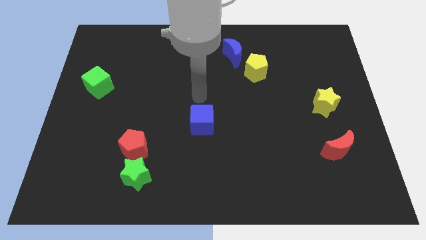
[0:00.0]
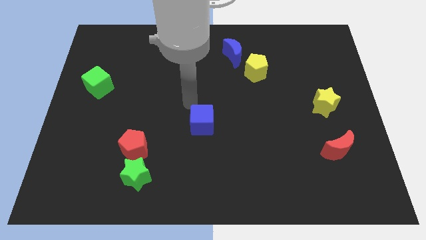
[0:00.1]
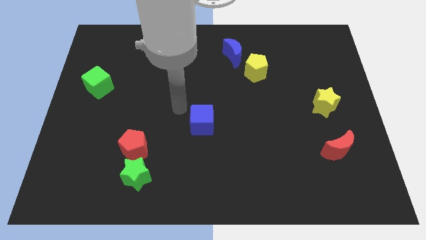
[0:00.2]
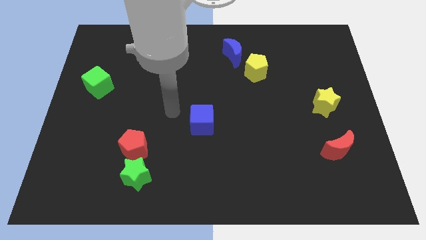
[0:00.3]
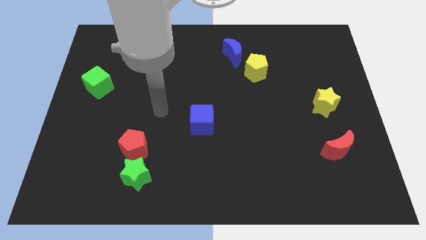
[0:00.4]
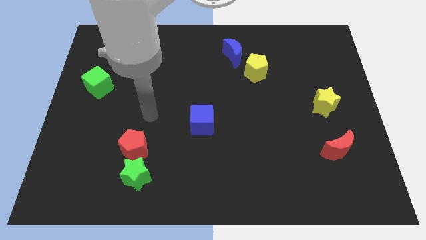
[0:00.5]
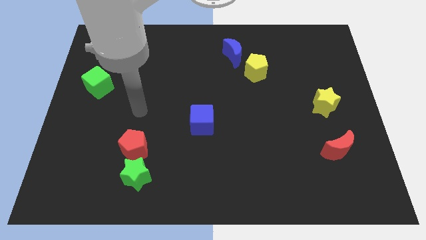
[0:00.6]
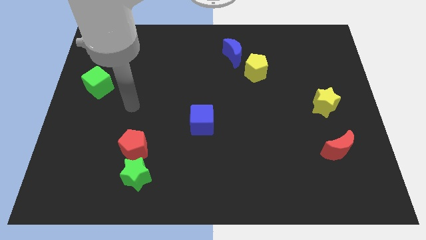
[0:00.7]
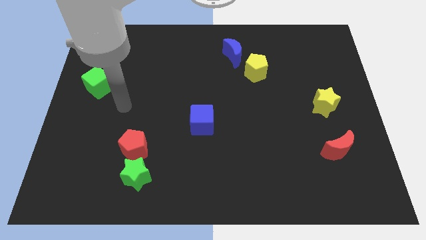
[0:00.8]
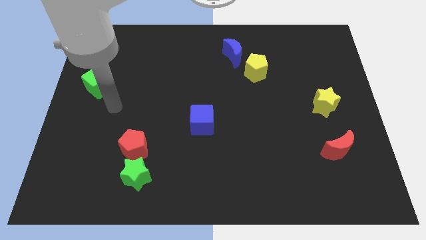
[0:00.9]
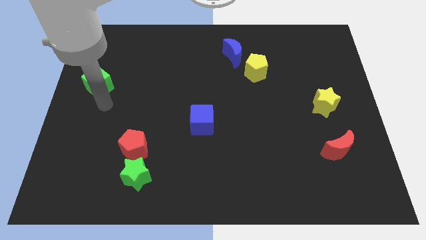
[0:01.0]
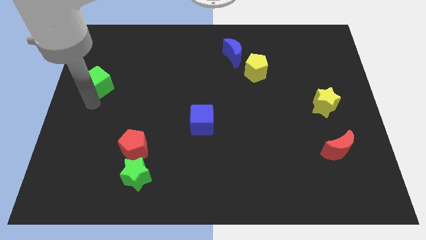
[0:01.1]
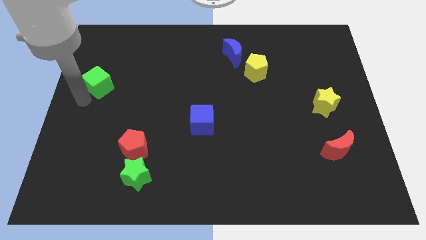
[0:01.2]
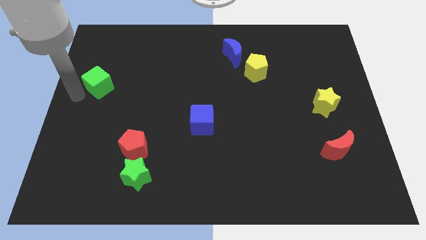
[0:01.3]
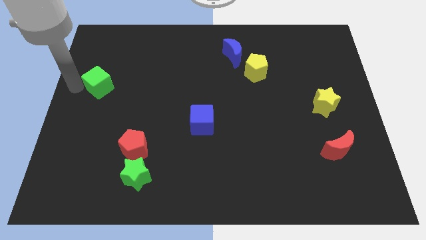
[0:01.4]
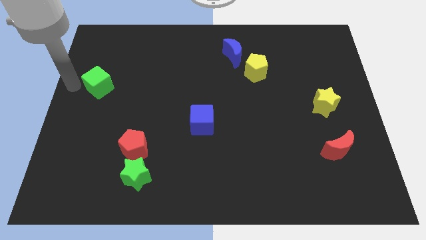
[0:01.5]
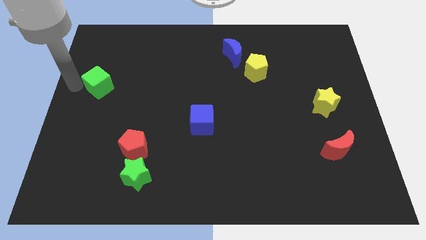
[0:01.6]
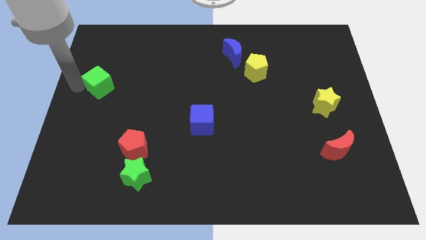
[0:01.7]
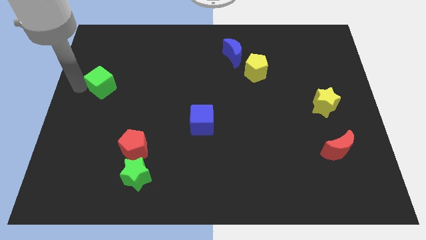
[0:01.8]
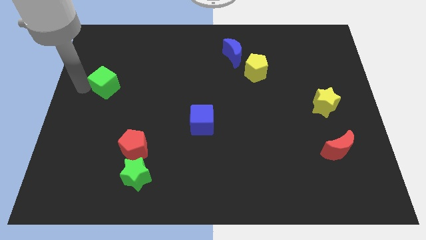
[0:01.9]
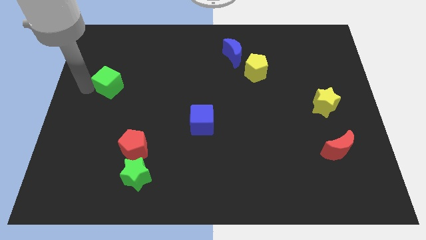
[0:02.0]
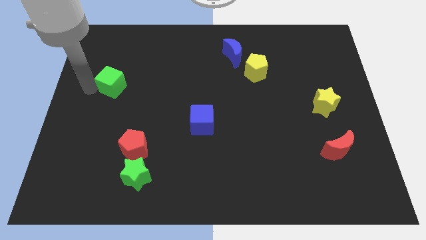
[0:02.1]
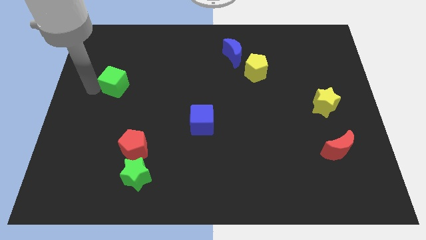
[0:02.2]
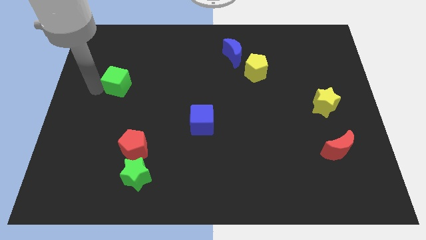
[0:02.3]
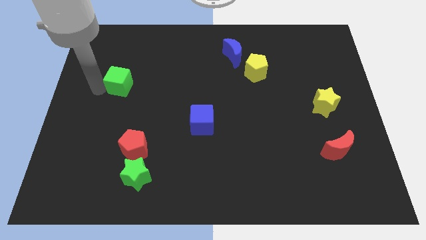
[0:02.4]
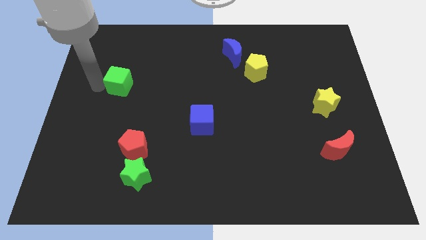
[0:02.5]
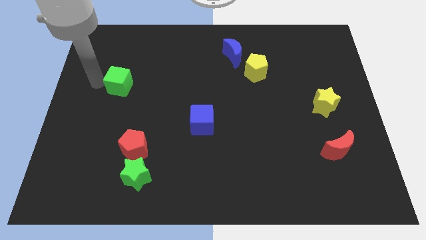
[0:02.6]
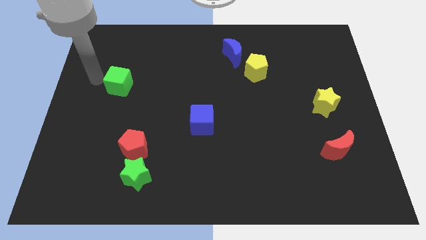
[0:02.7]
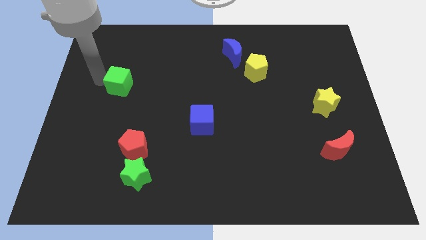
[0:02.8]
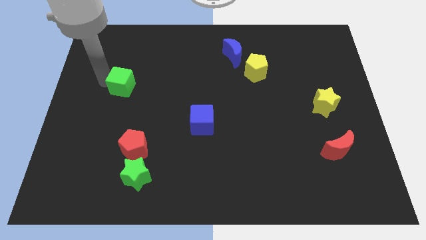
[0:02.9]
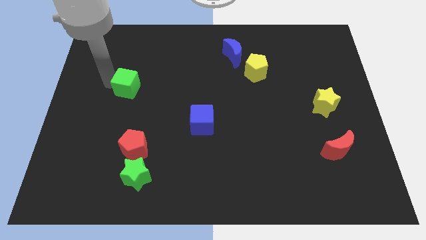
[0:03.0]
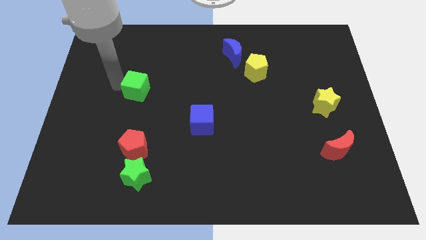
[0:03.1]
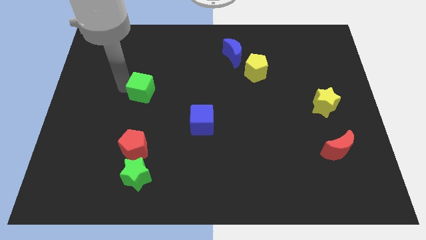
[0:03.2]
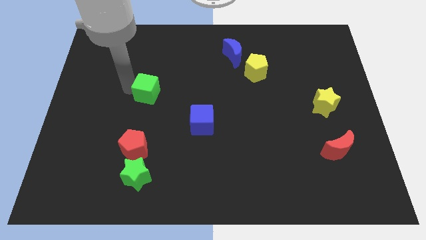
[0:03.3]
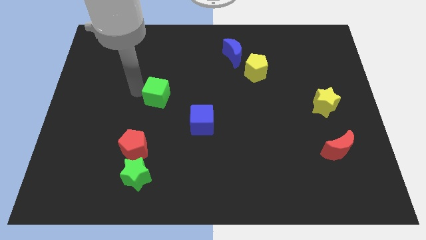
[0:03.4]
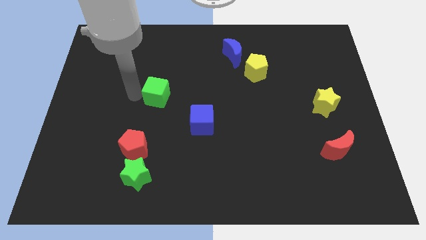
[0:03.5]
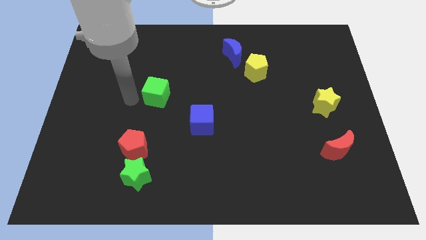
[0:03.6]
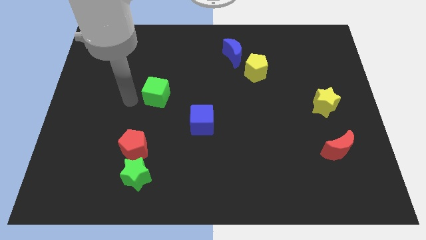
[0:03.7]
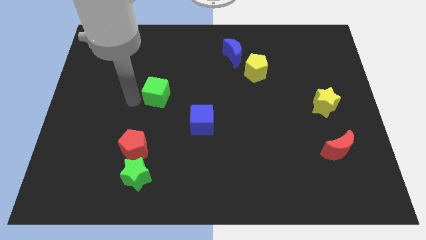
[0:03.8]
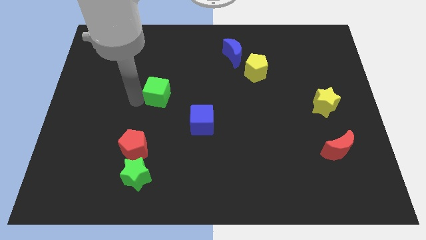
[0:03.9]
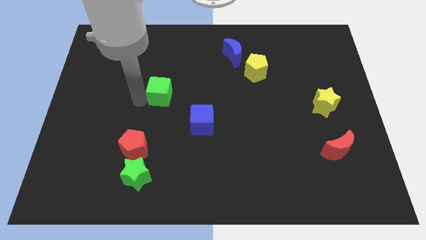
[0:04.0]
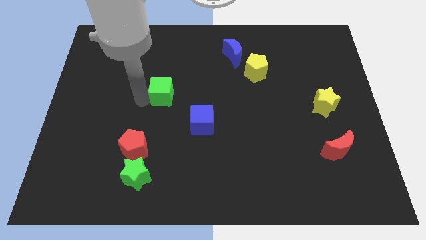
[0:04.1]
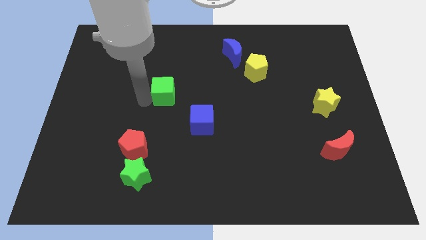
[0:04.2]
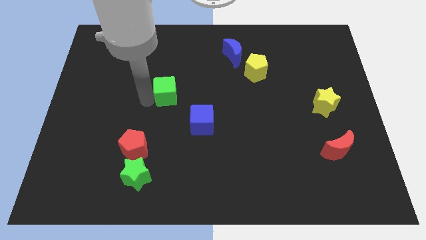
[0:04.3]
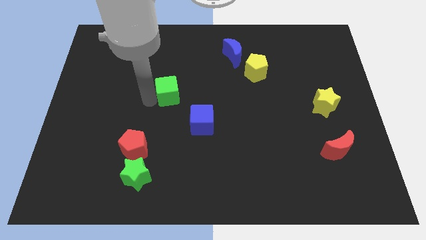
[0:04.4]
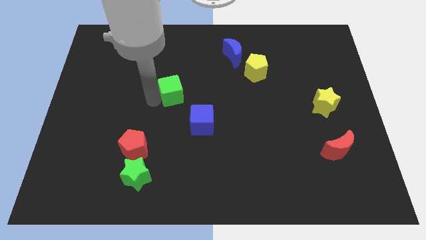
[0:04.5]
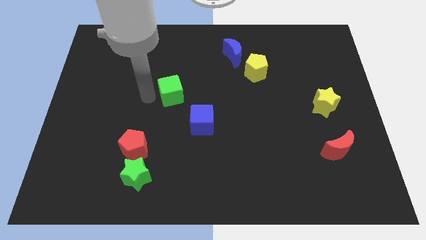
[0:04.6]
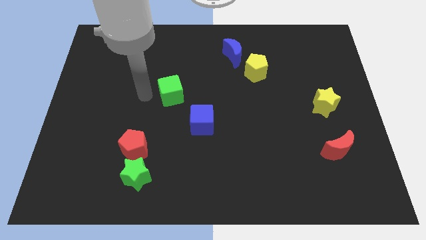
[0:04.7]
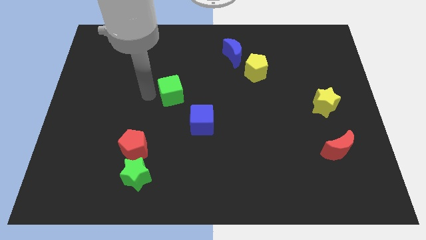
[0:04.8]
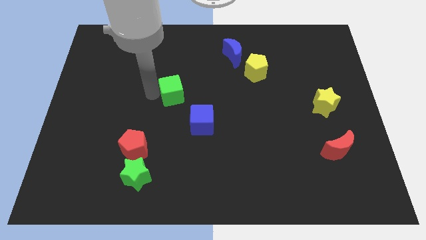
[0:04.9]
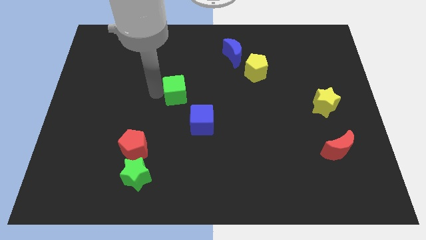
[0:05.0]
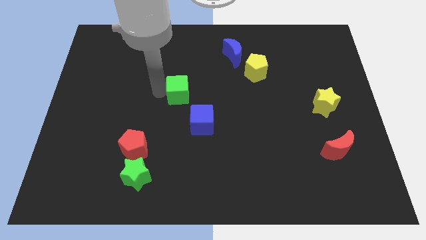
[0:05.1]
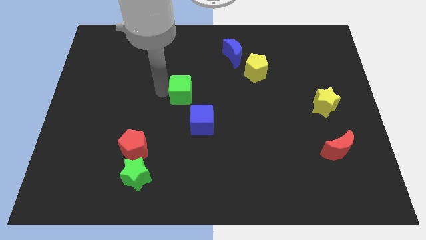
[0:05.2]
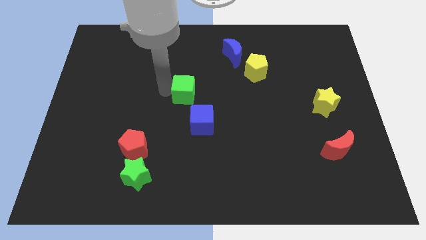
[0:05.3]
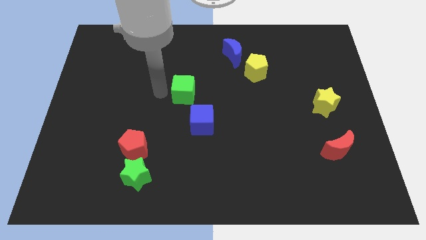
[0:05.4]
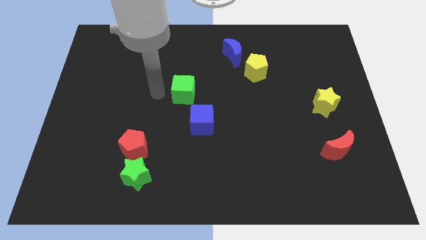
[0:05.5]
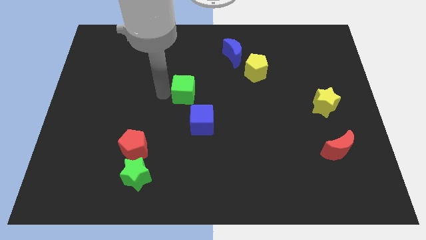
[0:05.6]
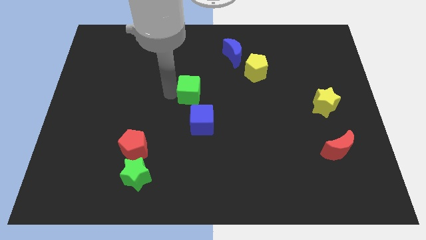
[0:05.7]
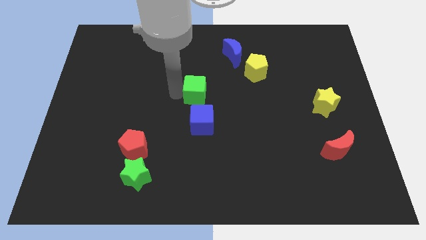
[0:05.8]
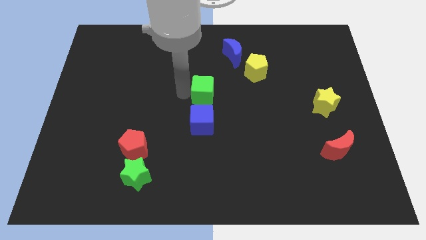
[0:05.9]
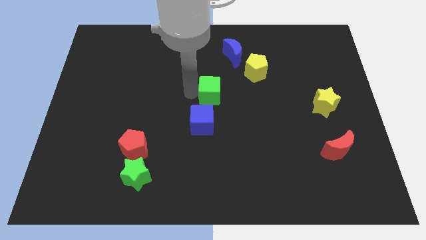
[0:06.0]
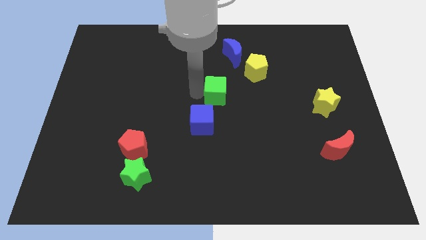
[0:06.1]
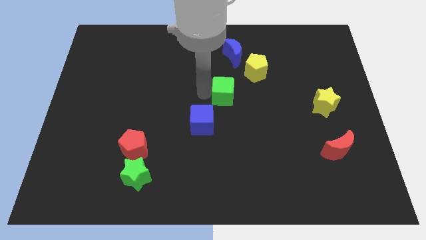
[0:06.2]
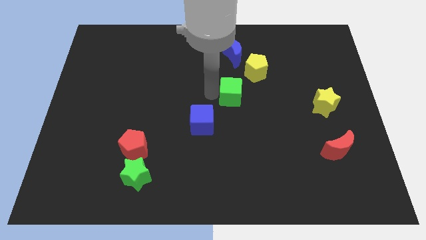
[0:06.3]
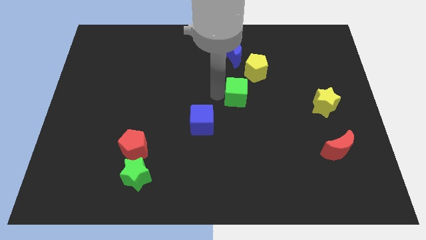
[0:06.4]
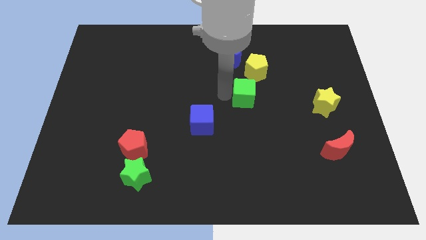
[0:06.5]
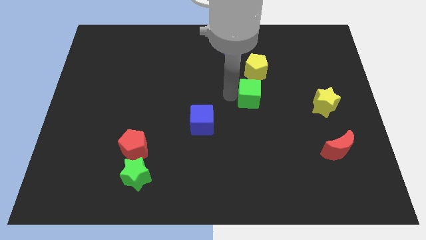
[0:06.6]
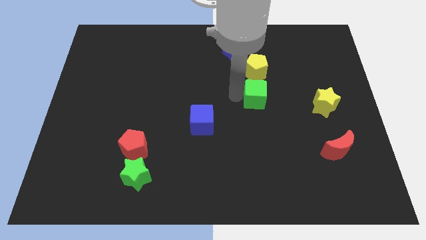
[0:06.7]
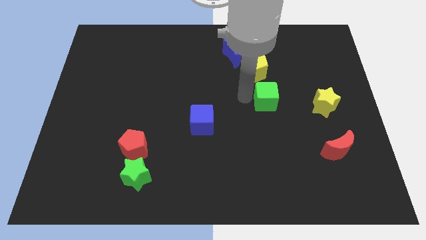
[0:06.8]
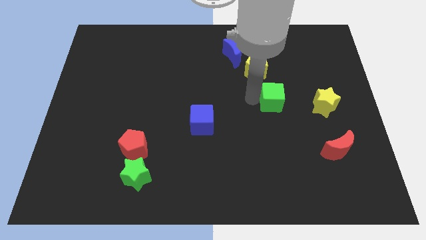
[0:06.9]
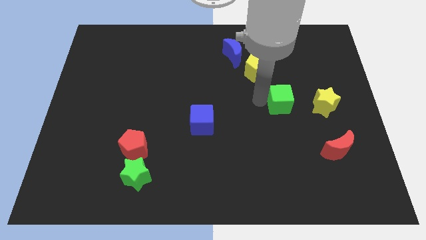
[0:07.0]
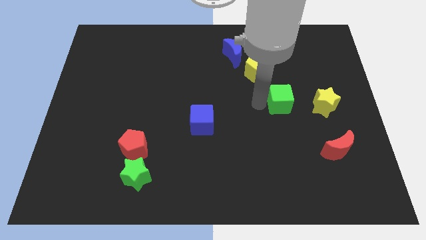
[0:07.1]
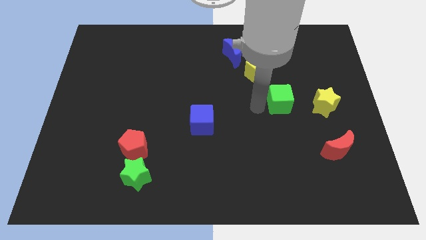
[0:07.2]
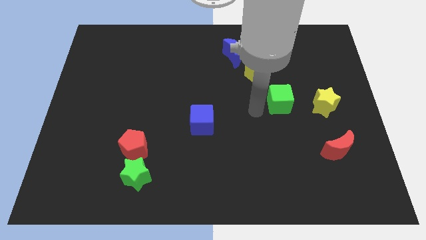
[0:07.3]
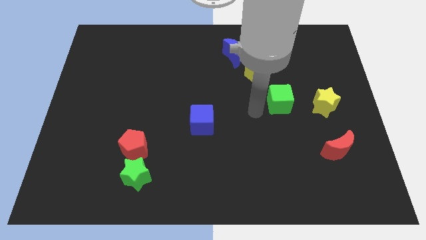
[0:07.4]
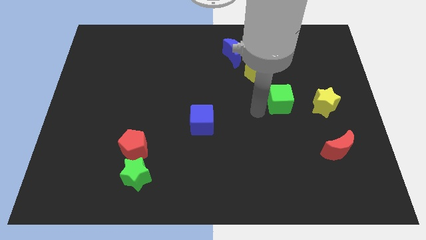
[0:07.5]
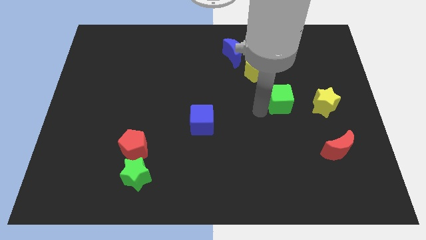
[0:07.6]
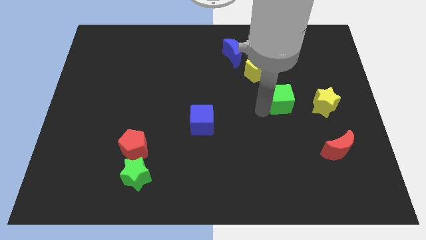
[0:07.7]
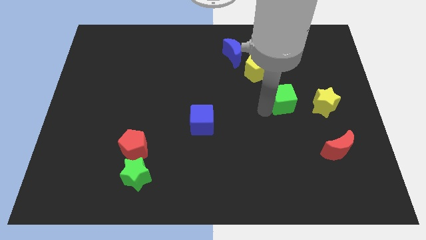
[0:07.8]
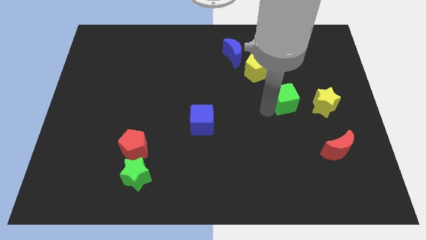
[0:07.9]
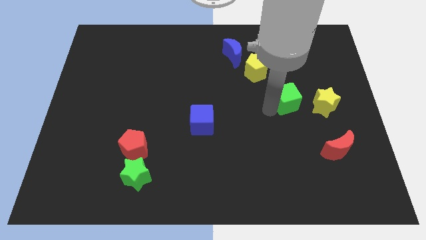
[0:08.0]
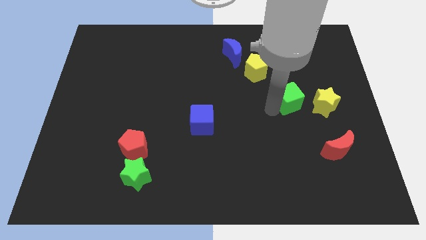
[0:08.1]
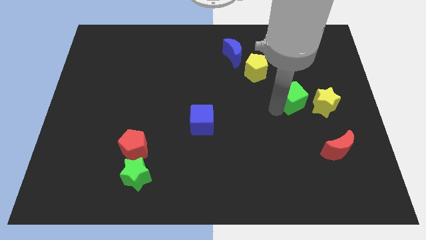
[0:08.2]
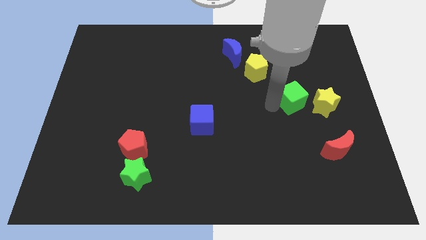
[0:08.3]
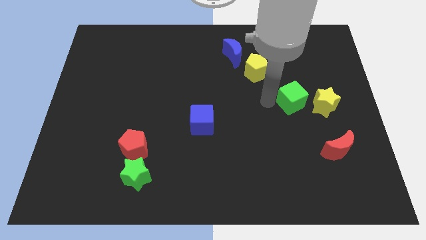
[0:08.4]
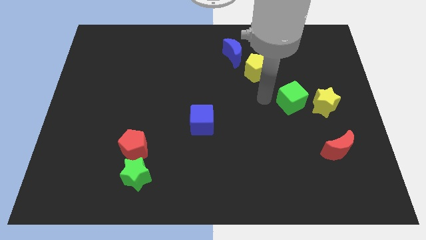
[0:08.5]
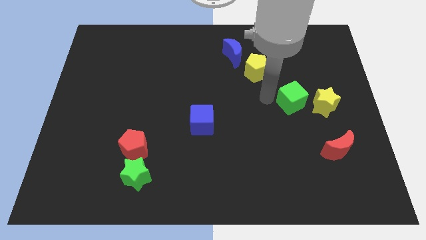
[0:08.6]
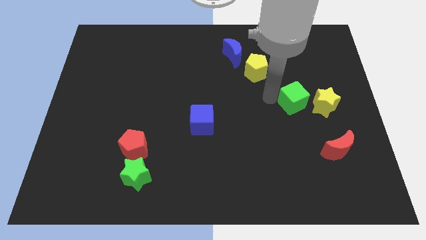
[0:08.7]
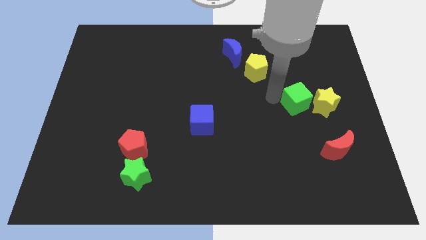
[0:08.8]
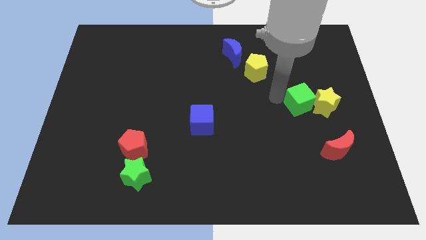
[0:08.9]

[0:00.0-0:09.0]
slide the green cube towards the yellow star
